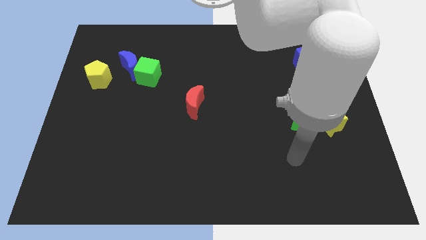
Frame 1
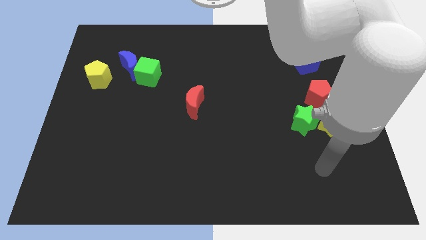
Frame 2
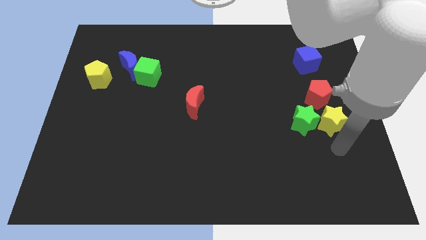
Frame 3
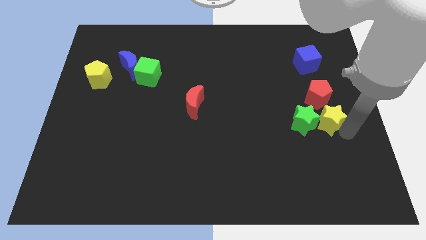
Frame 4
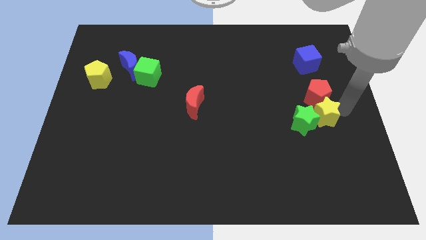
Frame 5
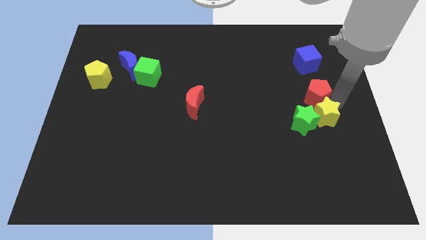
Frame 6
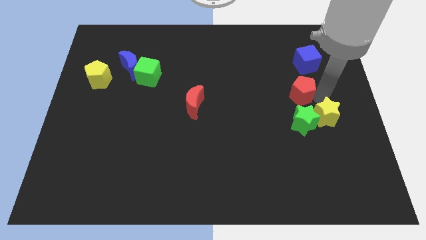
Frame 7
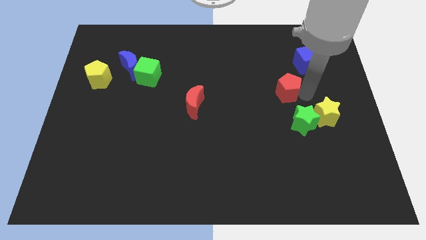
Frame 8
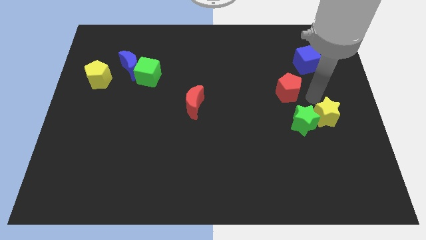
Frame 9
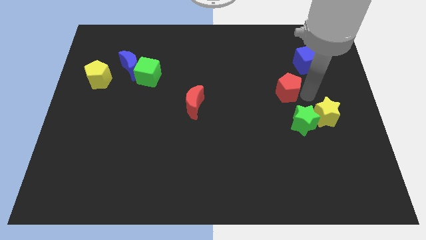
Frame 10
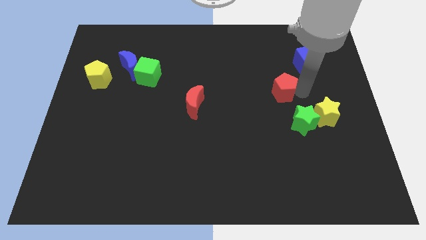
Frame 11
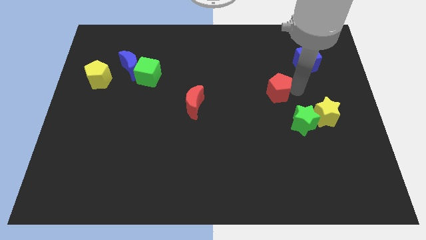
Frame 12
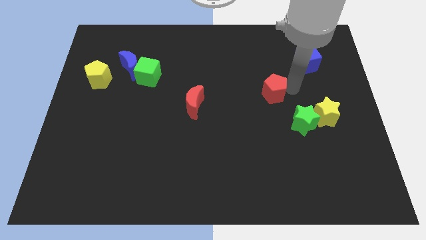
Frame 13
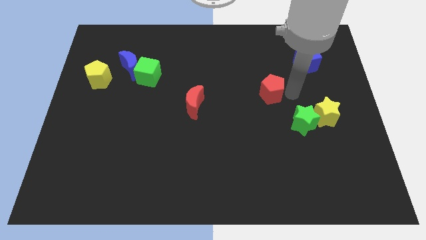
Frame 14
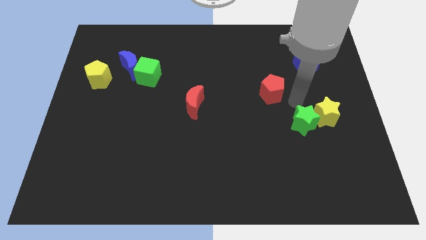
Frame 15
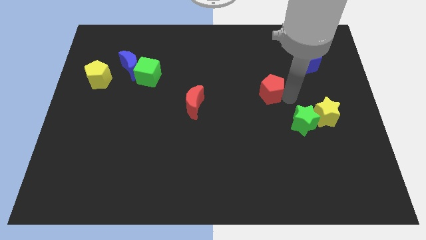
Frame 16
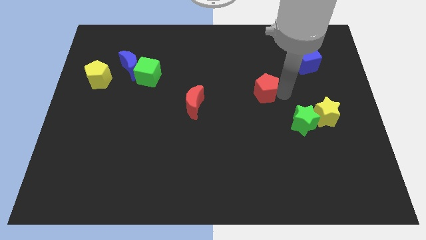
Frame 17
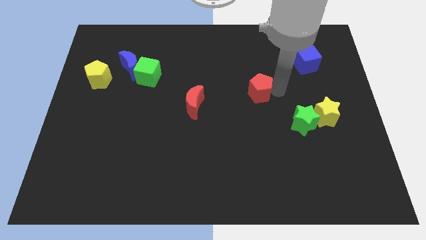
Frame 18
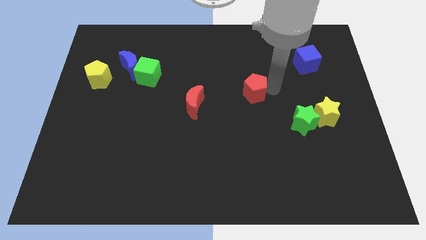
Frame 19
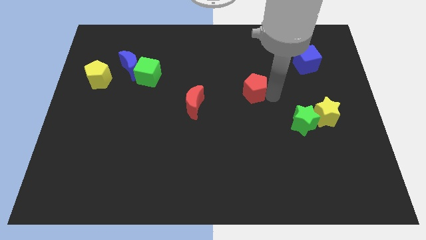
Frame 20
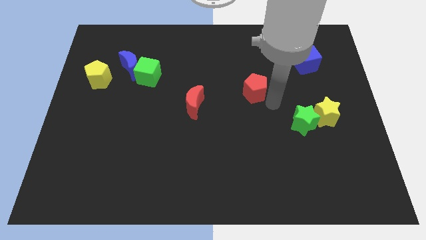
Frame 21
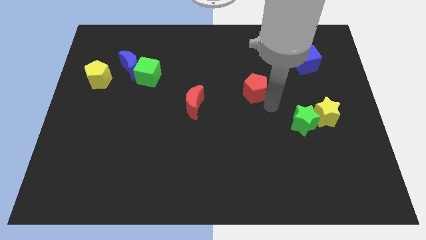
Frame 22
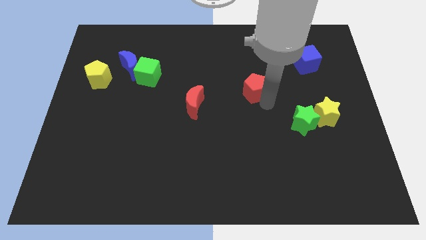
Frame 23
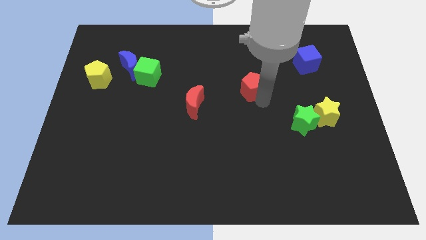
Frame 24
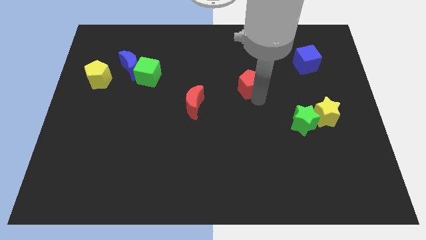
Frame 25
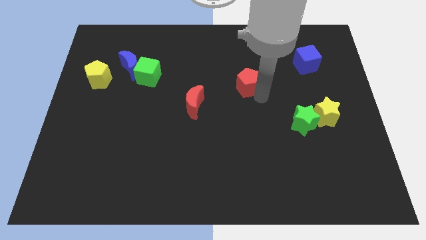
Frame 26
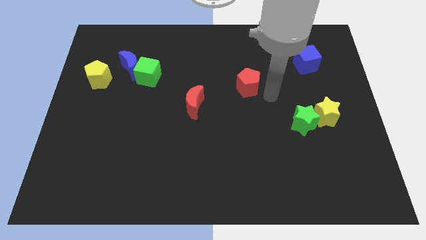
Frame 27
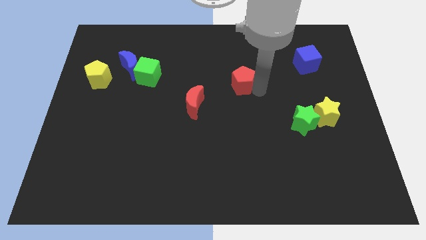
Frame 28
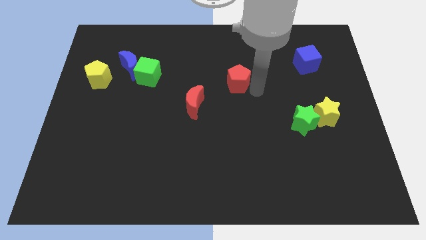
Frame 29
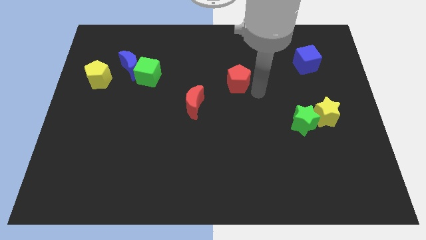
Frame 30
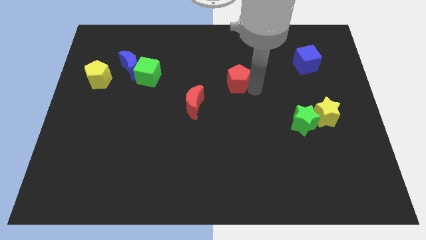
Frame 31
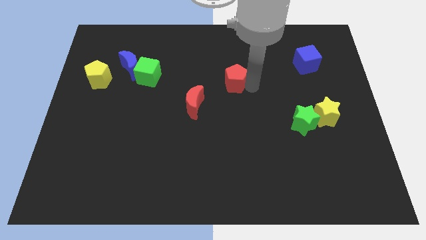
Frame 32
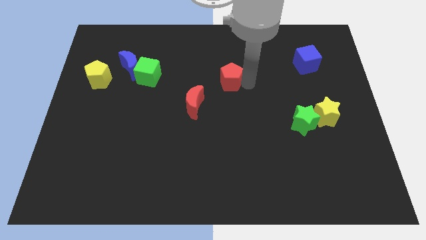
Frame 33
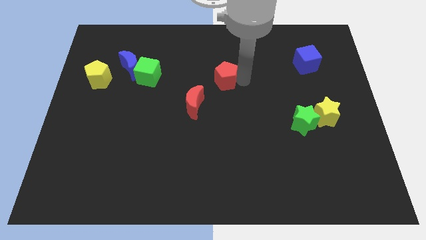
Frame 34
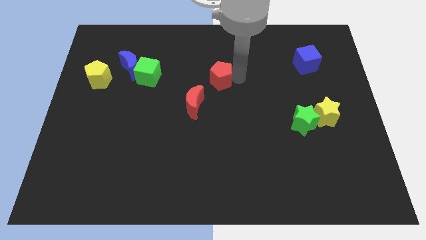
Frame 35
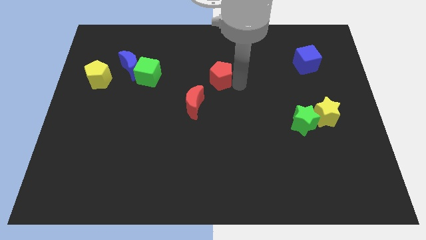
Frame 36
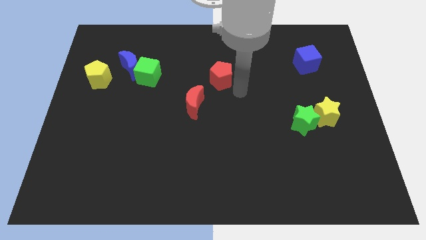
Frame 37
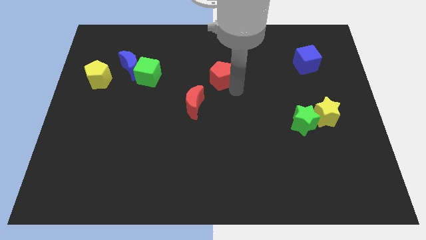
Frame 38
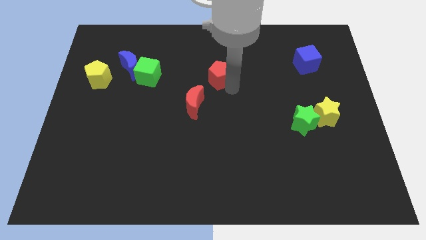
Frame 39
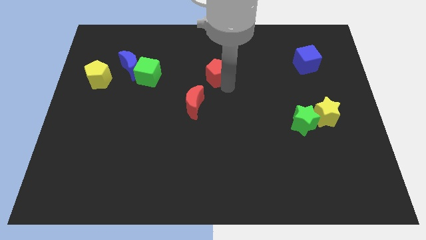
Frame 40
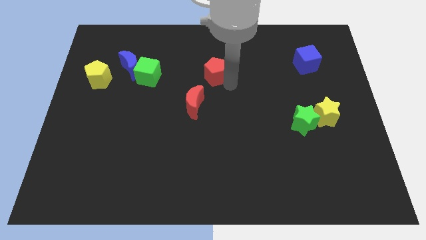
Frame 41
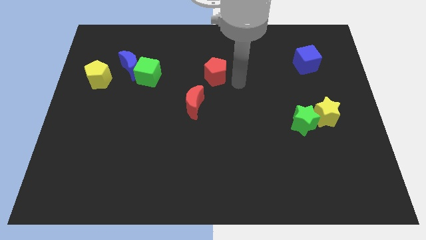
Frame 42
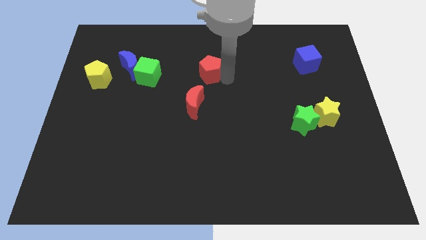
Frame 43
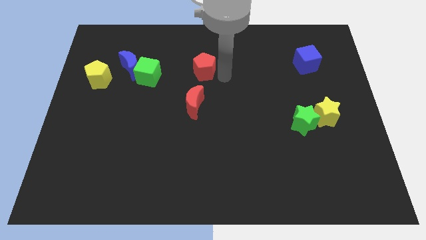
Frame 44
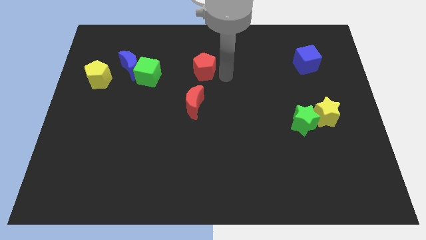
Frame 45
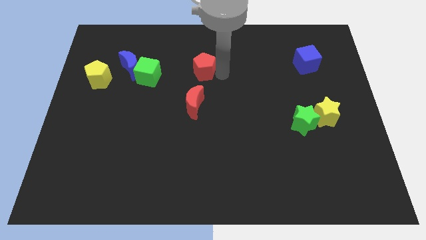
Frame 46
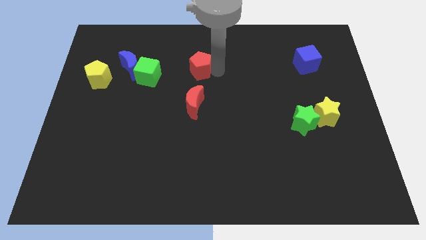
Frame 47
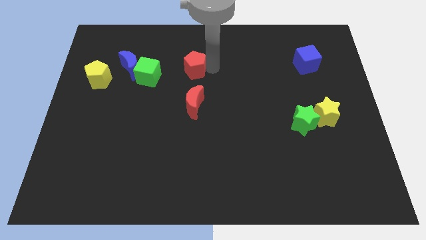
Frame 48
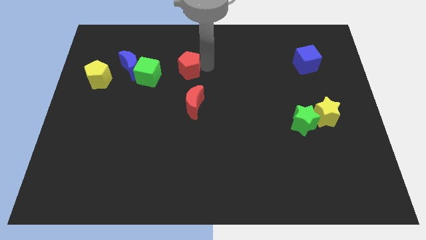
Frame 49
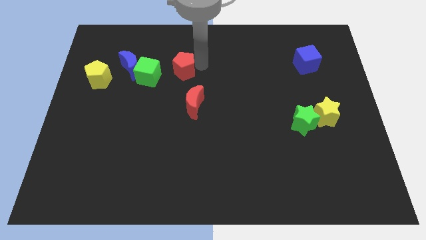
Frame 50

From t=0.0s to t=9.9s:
push the red pentagon to the top right side of the green cube

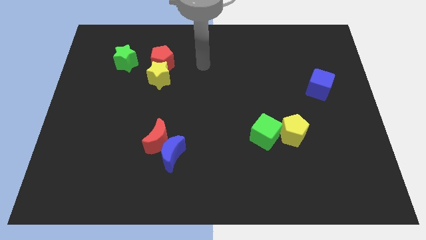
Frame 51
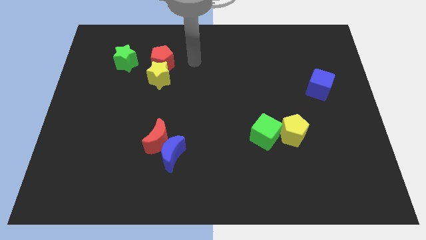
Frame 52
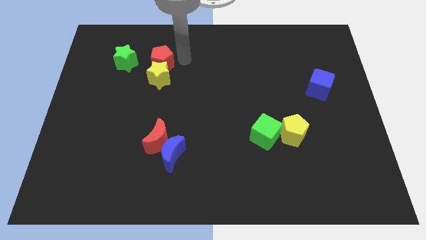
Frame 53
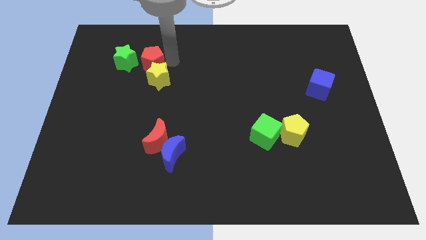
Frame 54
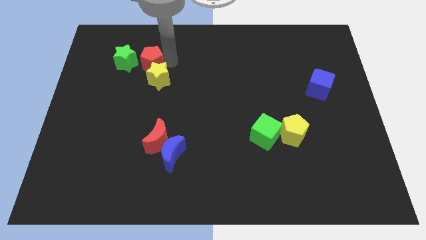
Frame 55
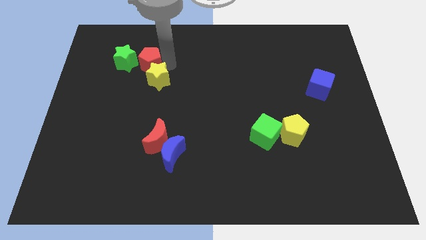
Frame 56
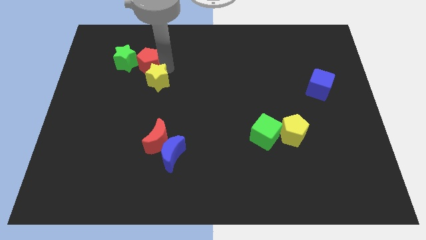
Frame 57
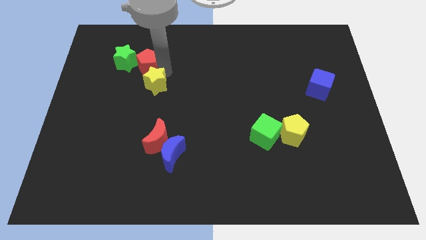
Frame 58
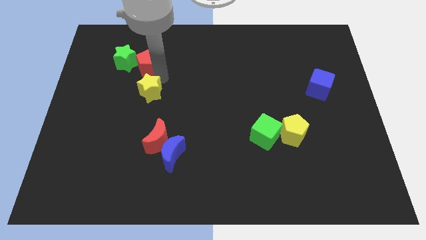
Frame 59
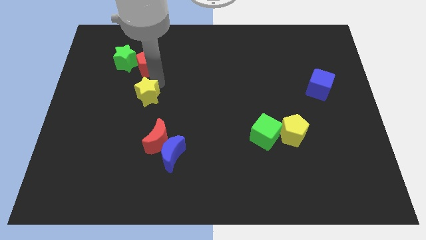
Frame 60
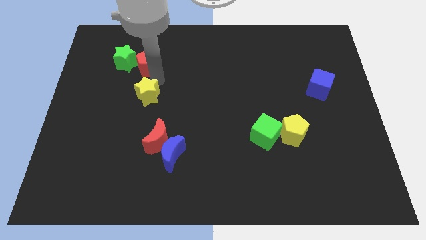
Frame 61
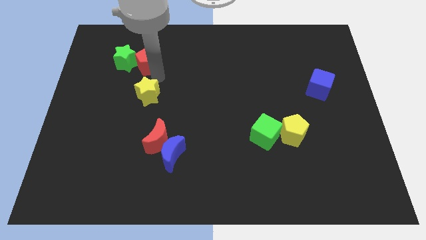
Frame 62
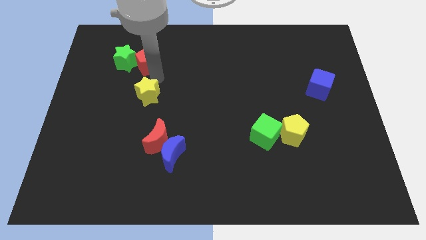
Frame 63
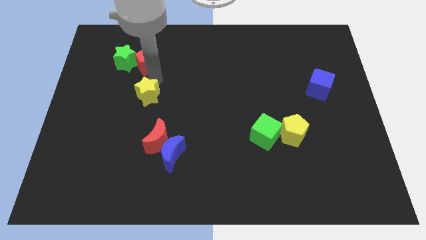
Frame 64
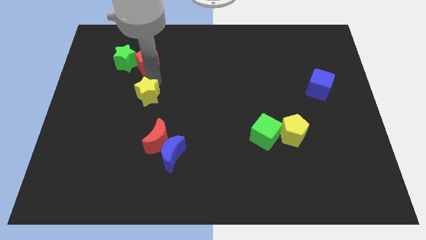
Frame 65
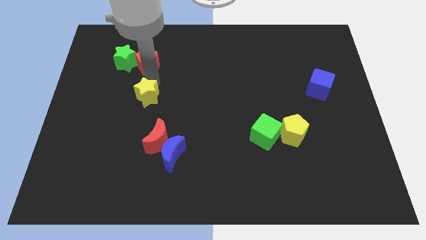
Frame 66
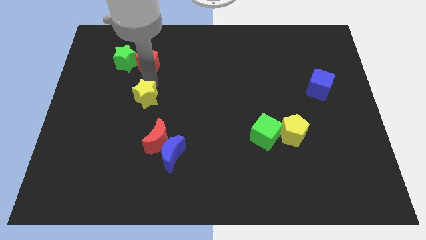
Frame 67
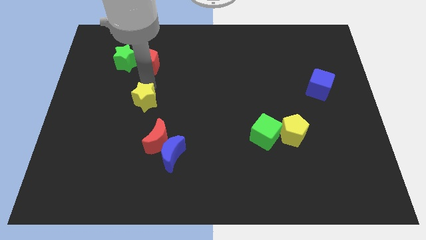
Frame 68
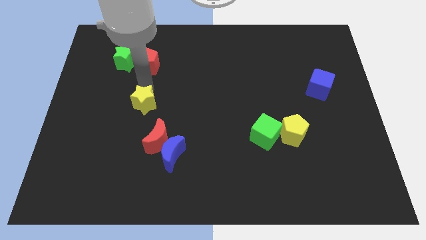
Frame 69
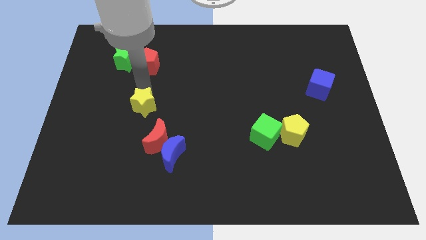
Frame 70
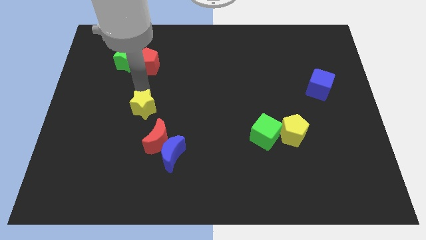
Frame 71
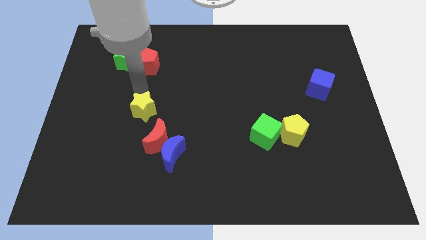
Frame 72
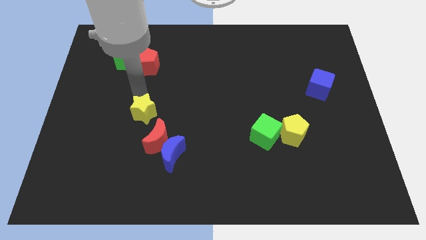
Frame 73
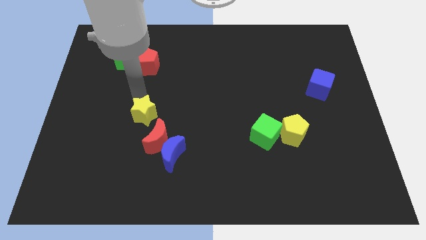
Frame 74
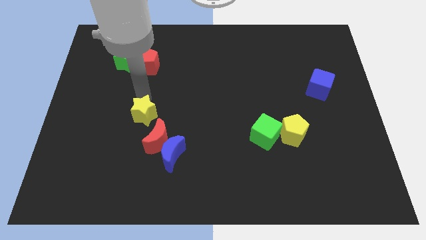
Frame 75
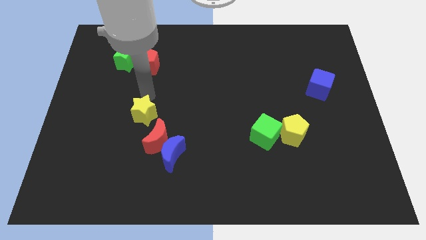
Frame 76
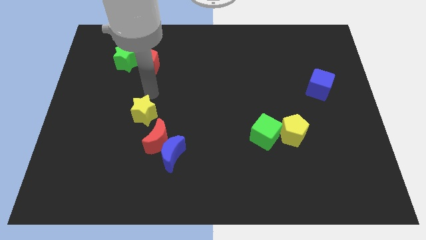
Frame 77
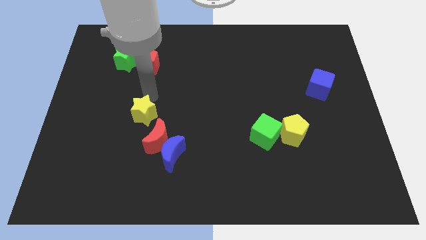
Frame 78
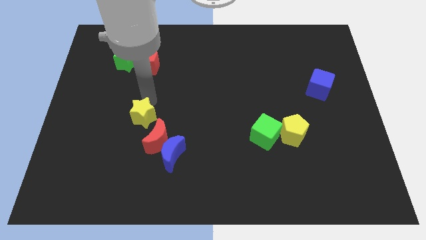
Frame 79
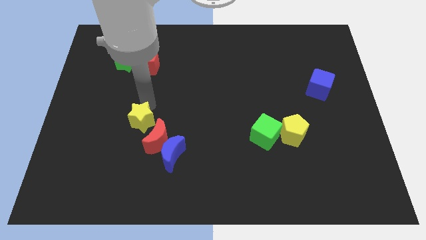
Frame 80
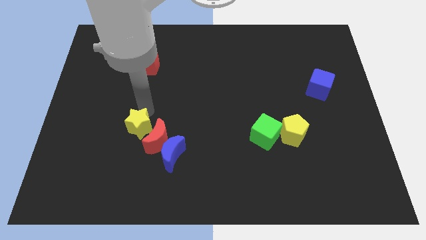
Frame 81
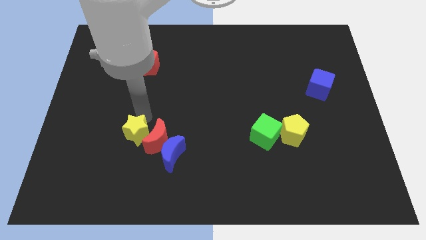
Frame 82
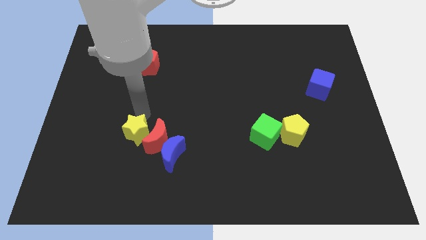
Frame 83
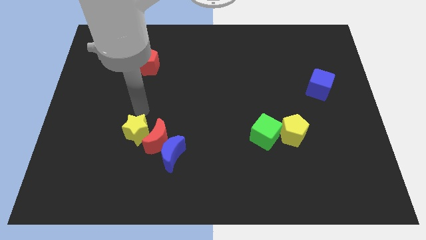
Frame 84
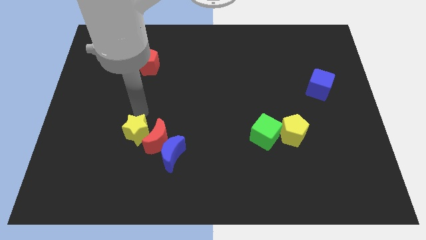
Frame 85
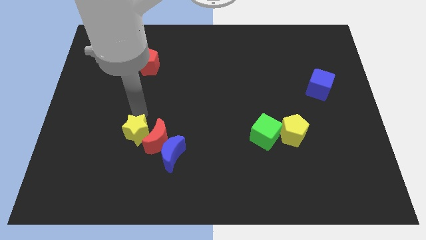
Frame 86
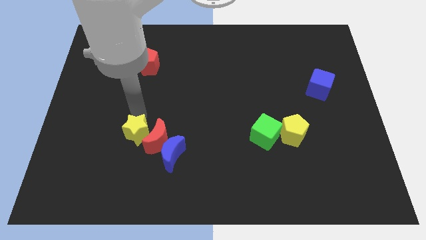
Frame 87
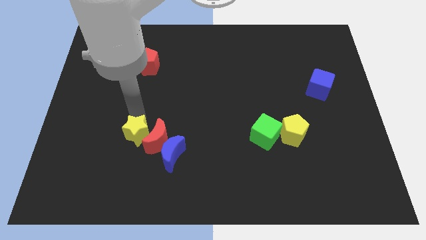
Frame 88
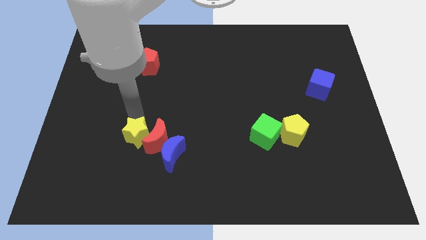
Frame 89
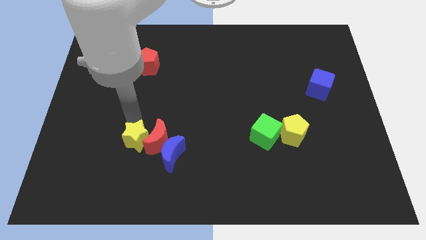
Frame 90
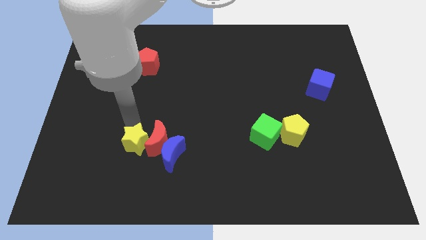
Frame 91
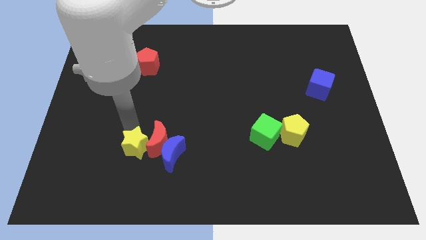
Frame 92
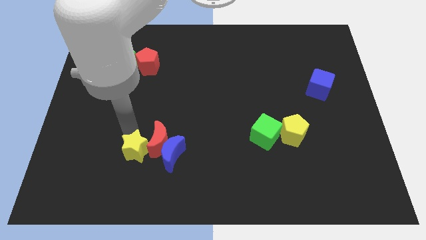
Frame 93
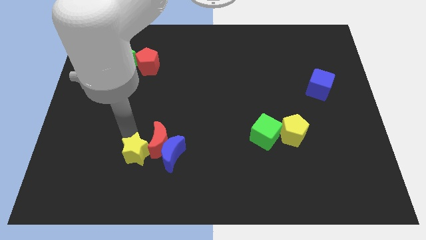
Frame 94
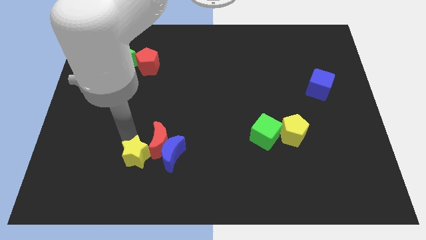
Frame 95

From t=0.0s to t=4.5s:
move the yellow star to the bottom left of the blue moon
